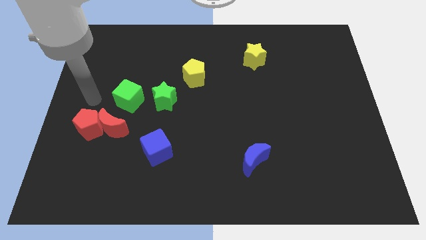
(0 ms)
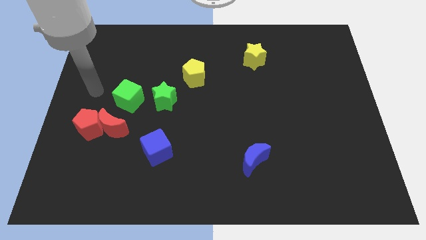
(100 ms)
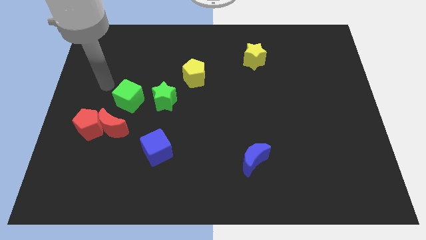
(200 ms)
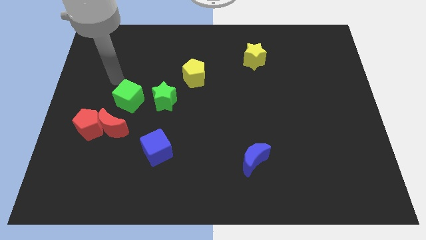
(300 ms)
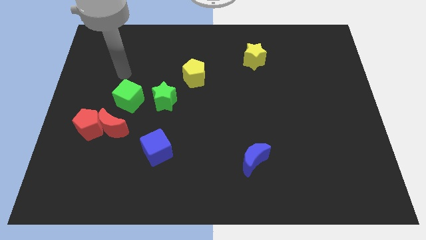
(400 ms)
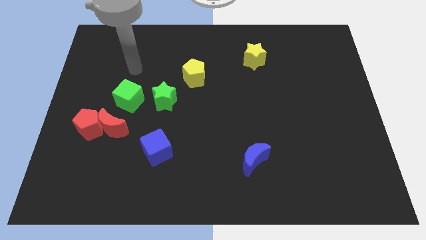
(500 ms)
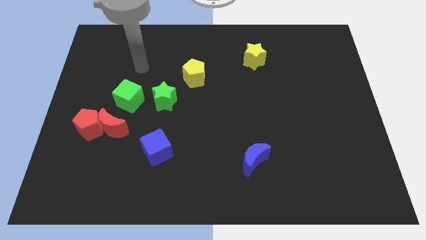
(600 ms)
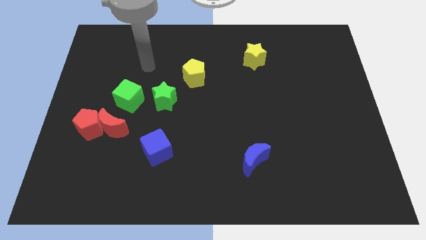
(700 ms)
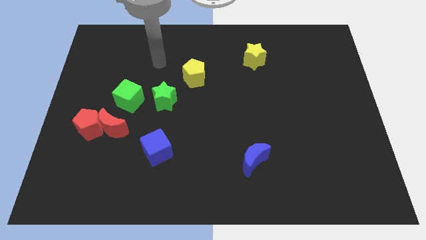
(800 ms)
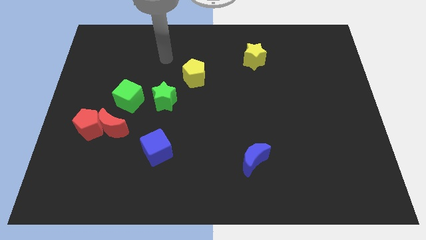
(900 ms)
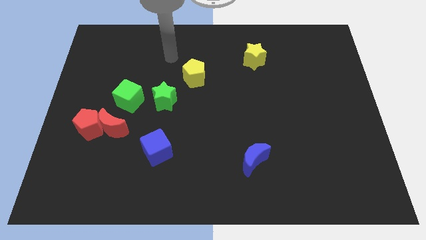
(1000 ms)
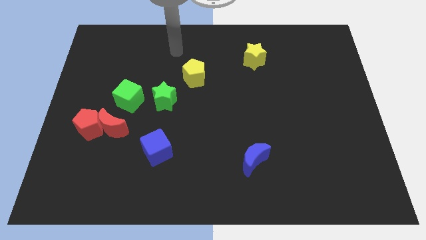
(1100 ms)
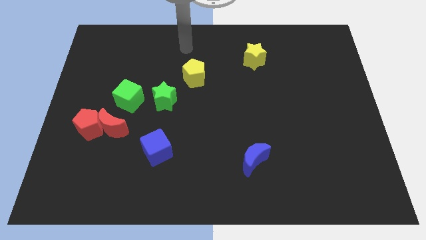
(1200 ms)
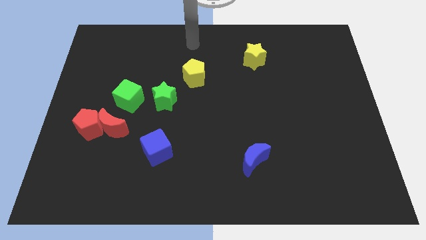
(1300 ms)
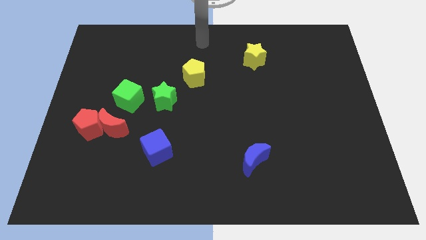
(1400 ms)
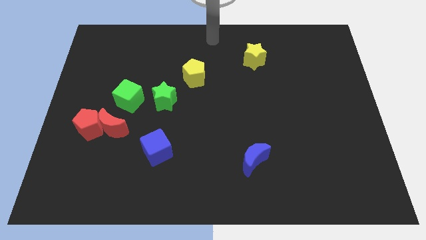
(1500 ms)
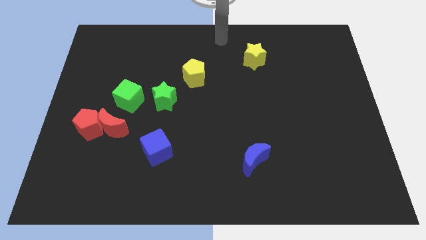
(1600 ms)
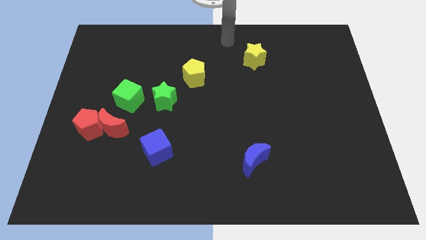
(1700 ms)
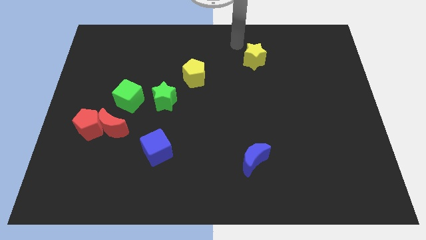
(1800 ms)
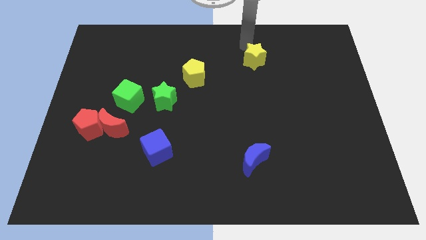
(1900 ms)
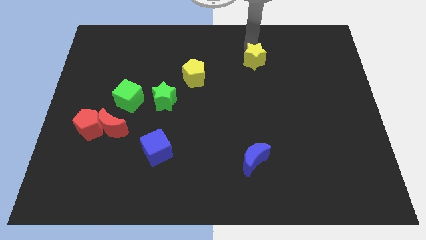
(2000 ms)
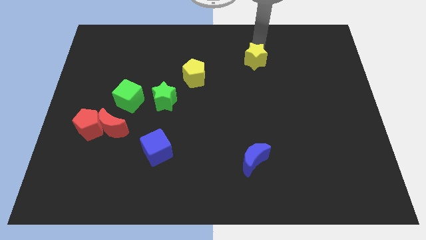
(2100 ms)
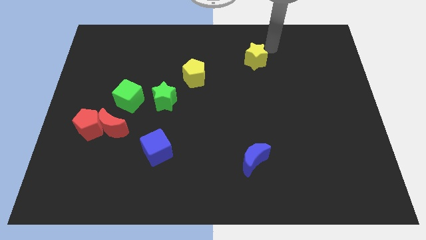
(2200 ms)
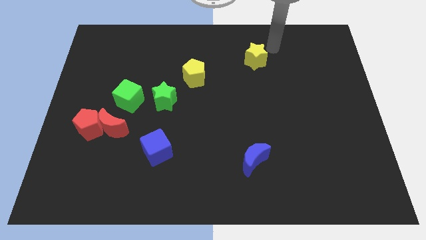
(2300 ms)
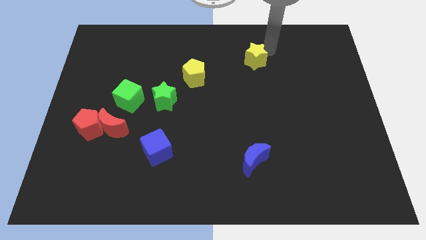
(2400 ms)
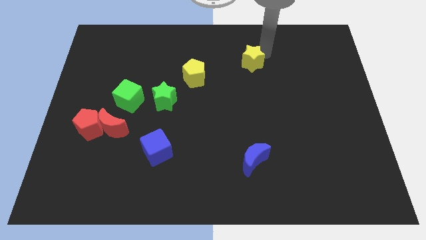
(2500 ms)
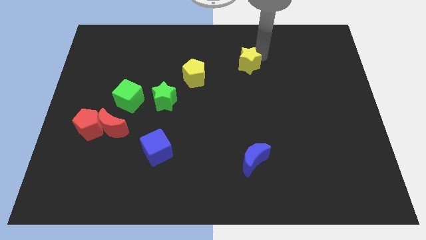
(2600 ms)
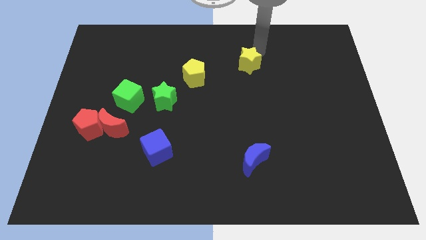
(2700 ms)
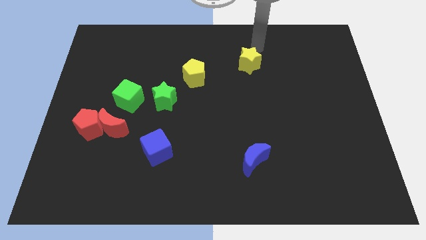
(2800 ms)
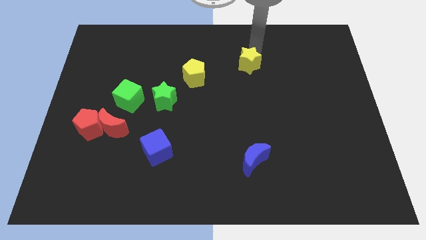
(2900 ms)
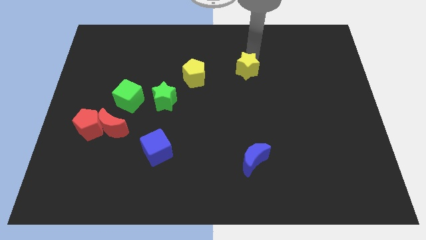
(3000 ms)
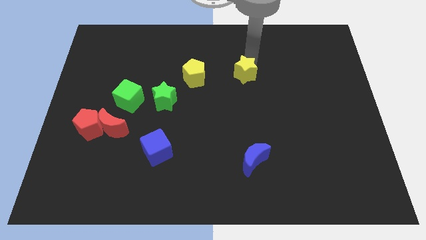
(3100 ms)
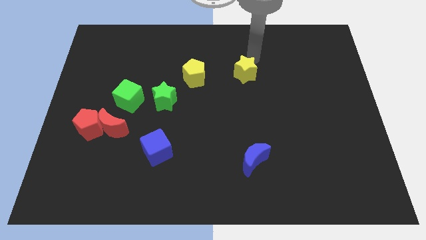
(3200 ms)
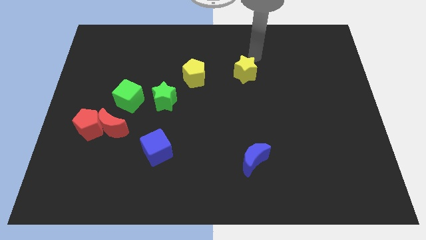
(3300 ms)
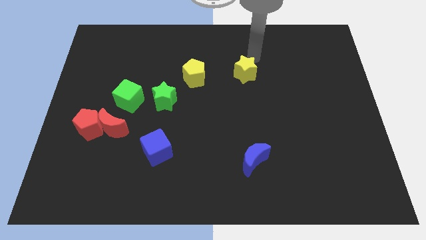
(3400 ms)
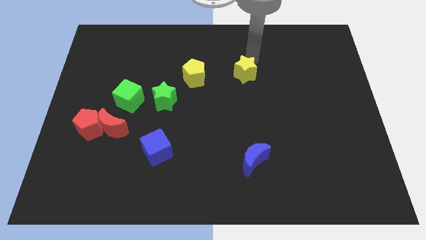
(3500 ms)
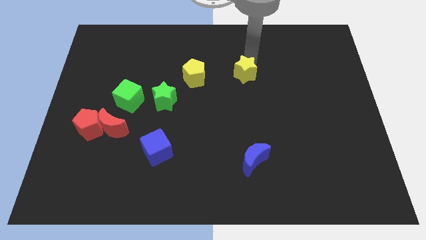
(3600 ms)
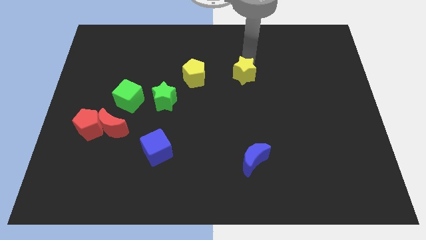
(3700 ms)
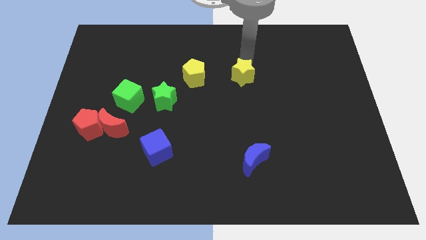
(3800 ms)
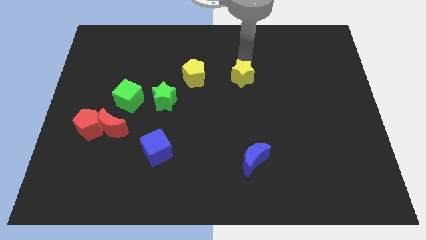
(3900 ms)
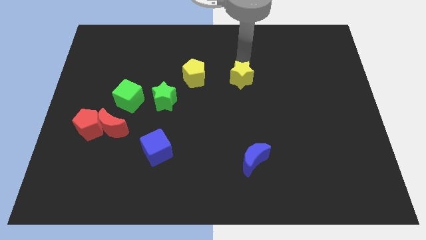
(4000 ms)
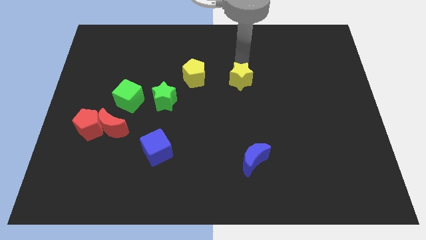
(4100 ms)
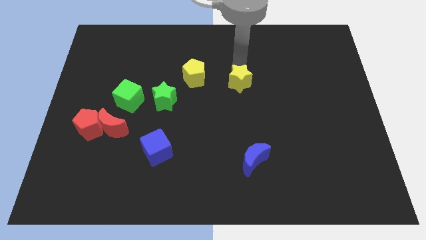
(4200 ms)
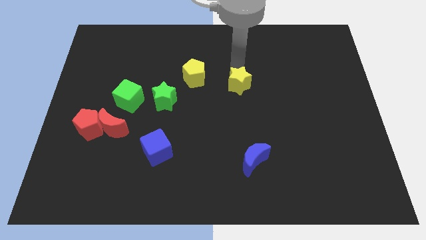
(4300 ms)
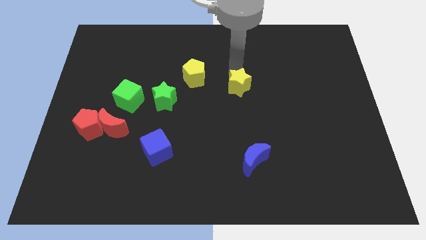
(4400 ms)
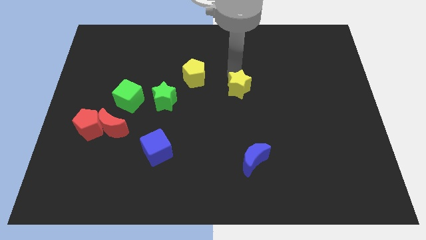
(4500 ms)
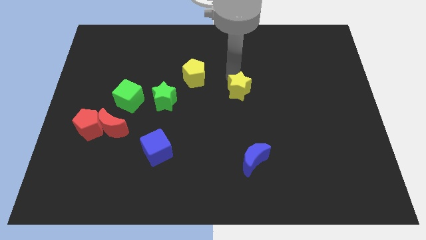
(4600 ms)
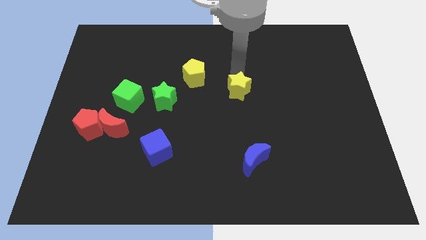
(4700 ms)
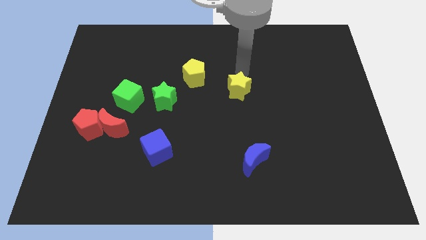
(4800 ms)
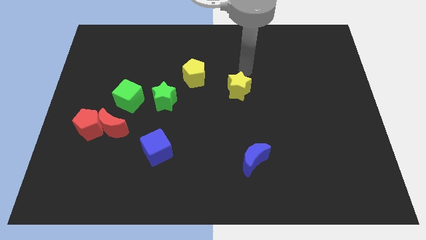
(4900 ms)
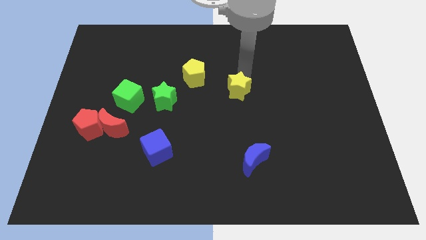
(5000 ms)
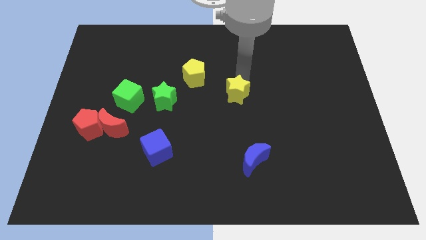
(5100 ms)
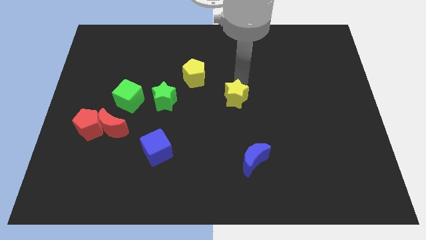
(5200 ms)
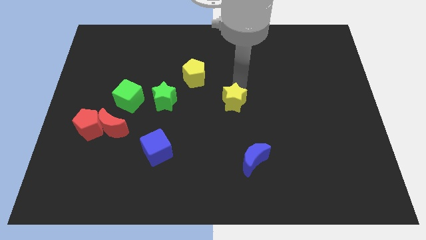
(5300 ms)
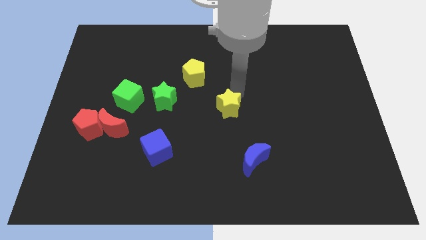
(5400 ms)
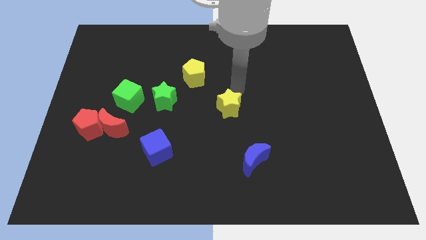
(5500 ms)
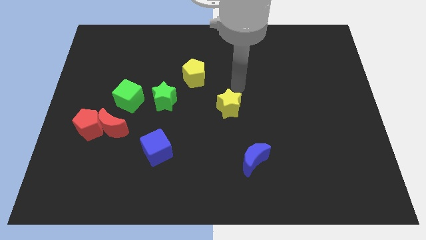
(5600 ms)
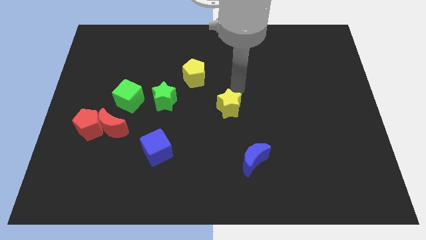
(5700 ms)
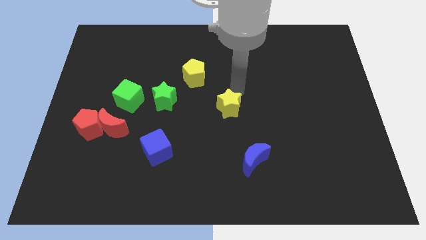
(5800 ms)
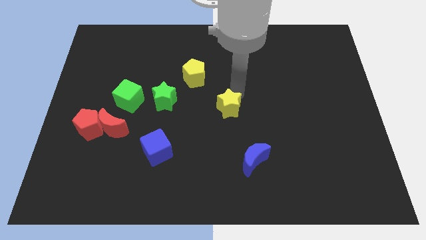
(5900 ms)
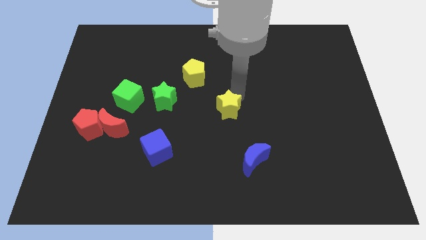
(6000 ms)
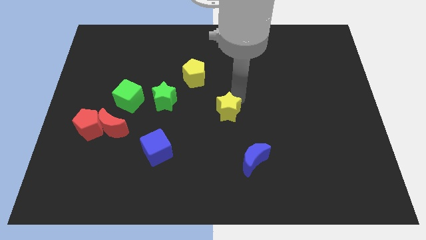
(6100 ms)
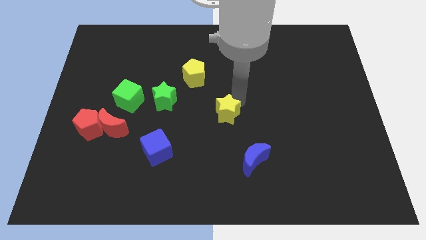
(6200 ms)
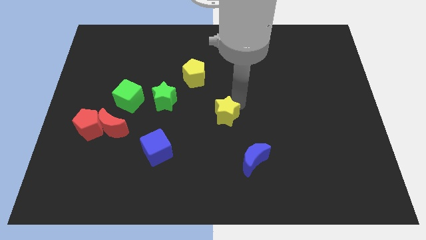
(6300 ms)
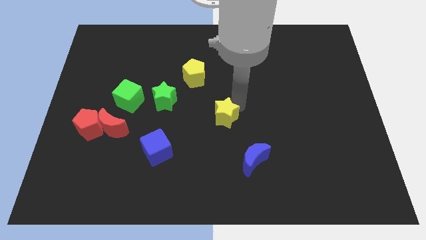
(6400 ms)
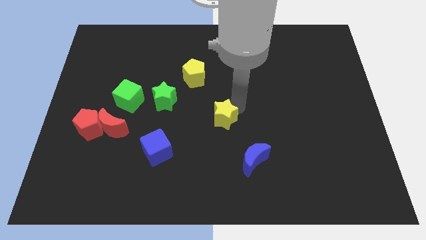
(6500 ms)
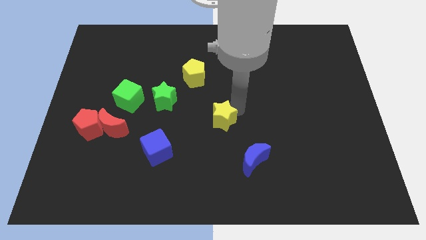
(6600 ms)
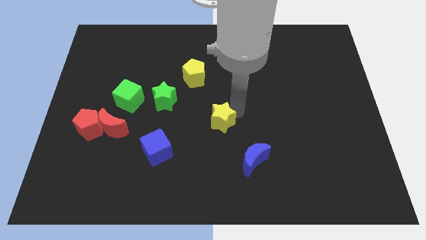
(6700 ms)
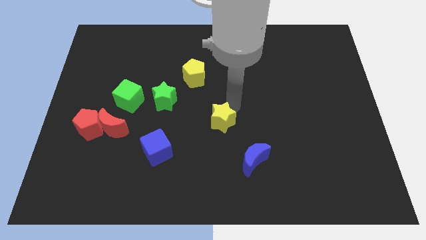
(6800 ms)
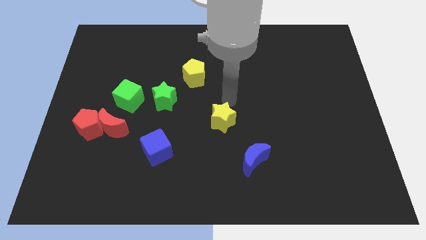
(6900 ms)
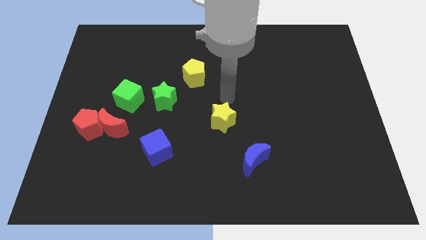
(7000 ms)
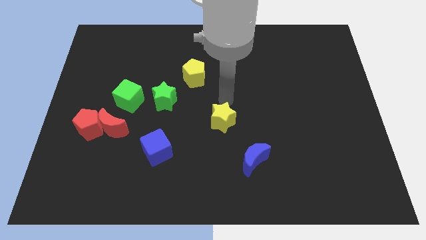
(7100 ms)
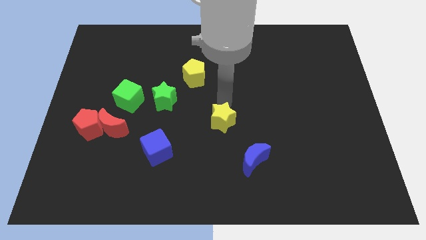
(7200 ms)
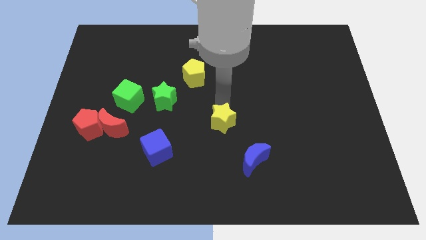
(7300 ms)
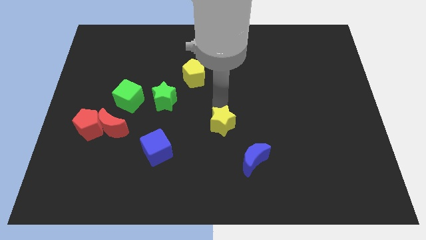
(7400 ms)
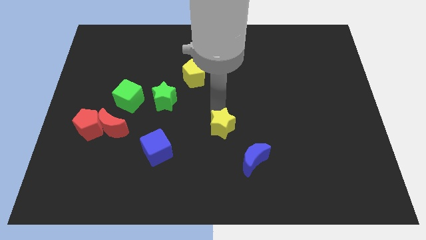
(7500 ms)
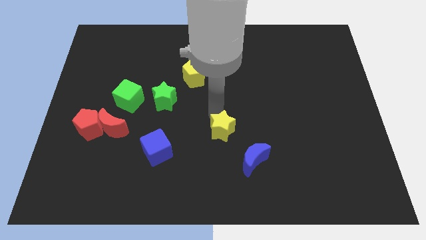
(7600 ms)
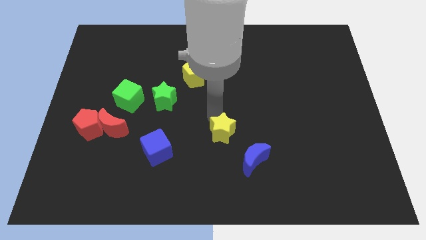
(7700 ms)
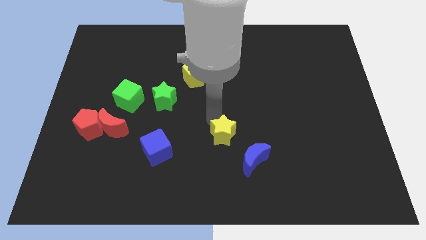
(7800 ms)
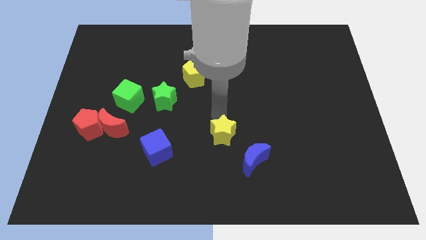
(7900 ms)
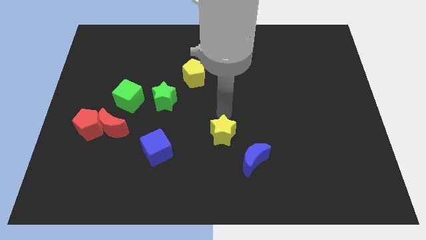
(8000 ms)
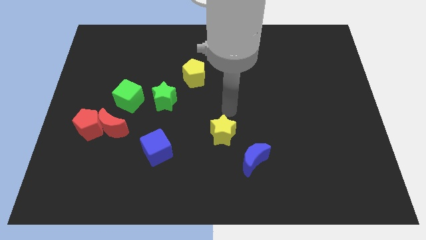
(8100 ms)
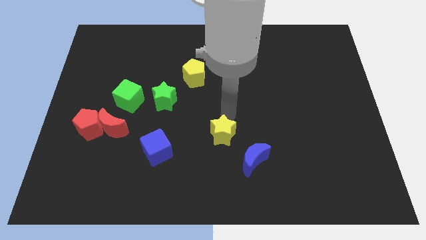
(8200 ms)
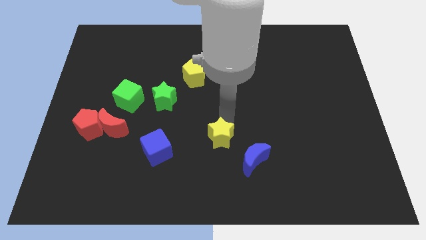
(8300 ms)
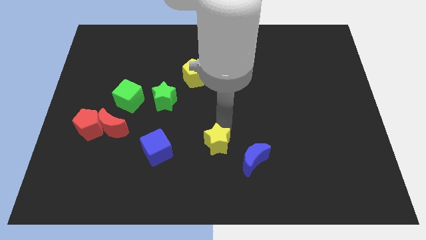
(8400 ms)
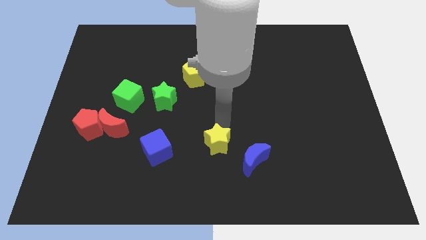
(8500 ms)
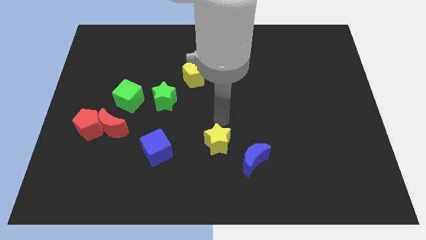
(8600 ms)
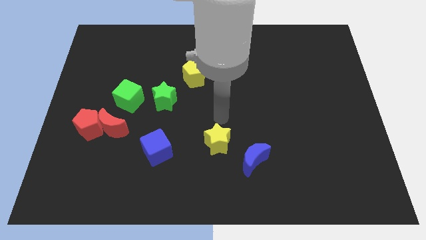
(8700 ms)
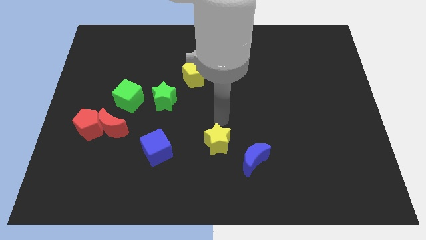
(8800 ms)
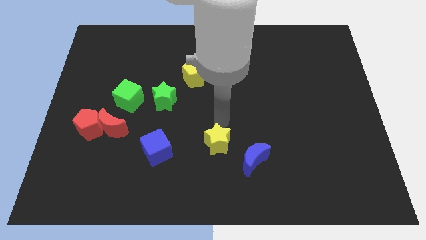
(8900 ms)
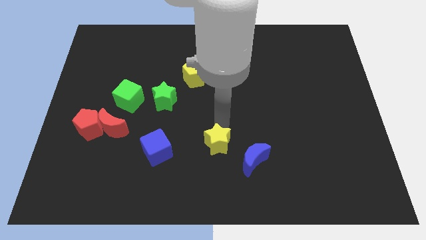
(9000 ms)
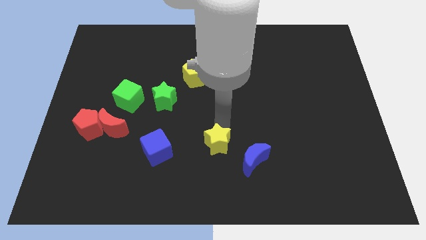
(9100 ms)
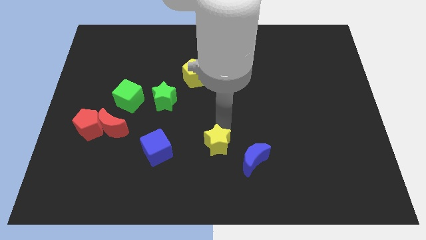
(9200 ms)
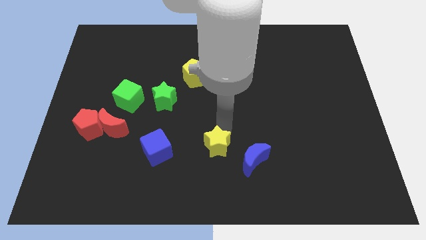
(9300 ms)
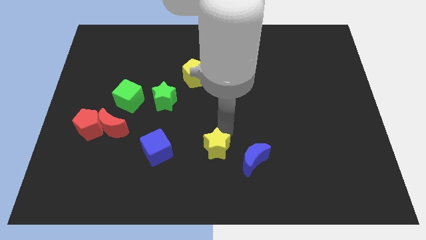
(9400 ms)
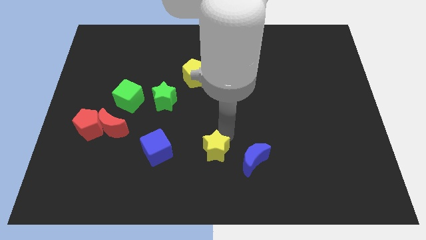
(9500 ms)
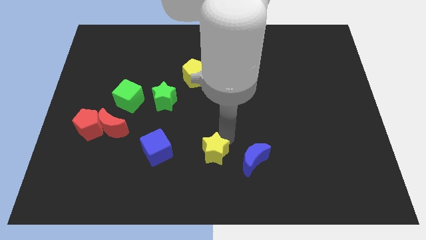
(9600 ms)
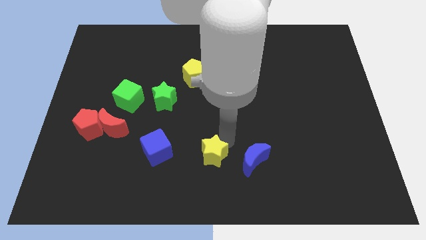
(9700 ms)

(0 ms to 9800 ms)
slide the yellow star to the bottom
